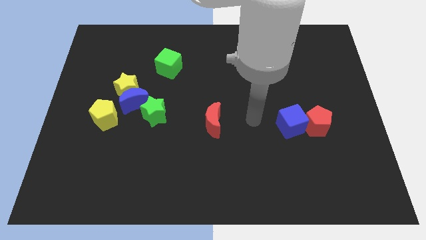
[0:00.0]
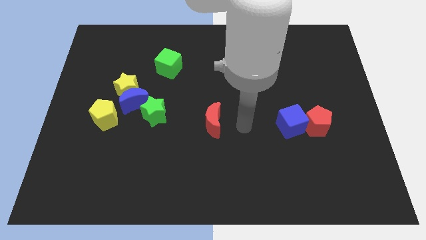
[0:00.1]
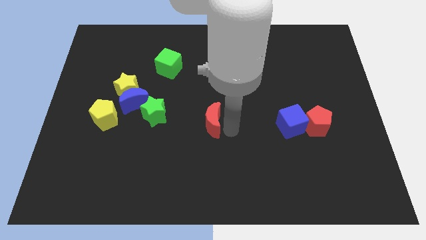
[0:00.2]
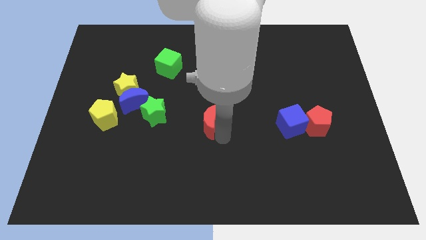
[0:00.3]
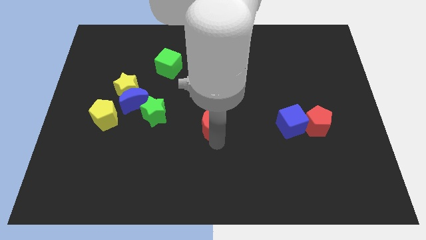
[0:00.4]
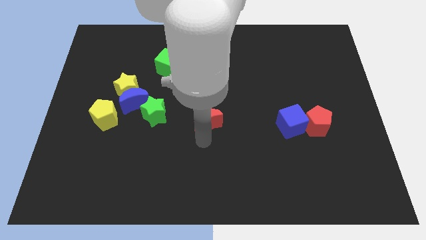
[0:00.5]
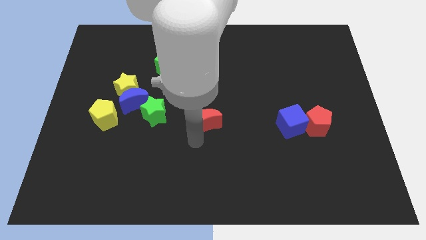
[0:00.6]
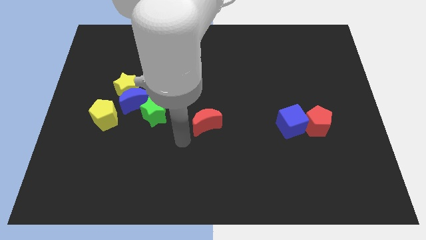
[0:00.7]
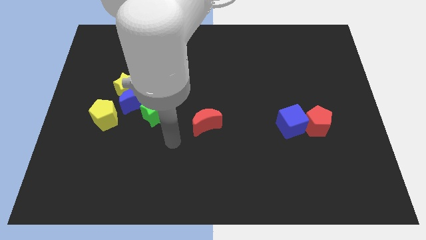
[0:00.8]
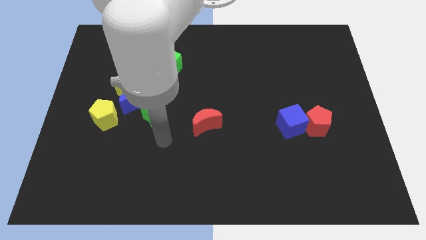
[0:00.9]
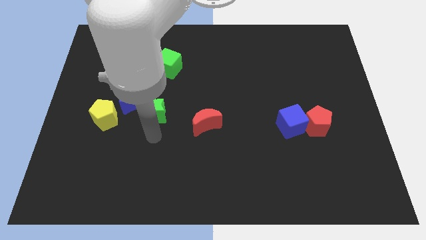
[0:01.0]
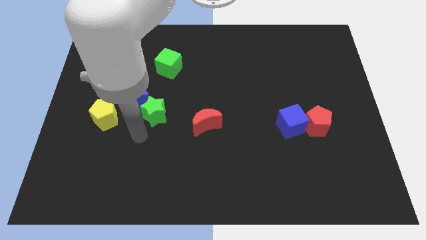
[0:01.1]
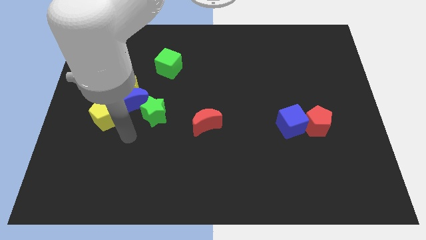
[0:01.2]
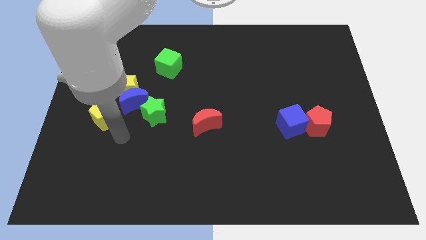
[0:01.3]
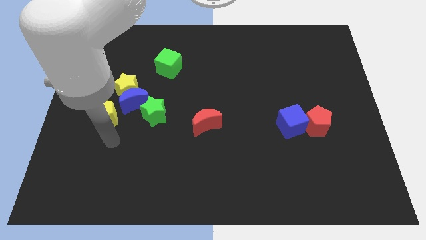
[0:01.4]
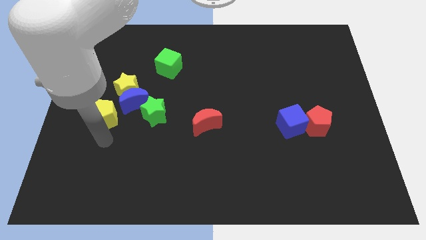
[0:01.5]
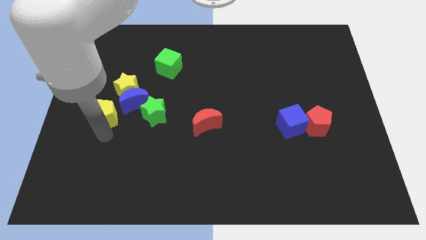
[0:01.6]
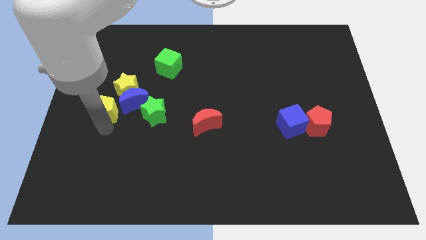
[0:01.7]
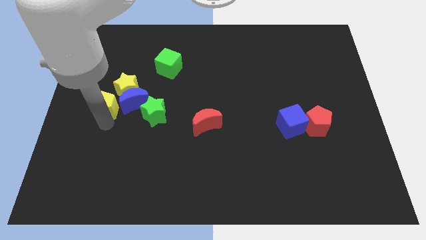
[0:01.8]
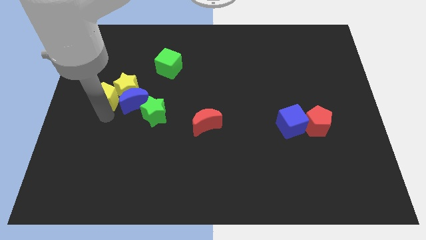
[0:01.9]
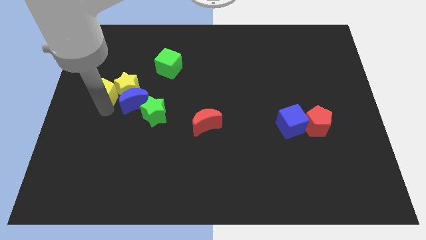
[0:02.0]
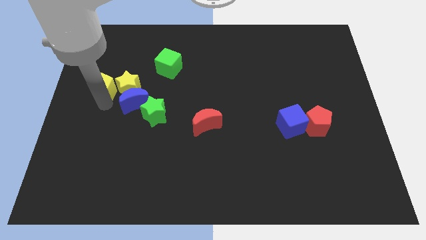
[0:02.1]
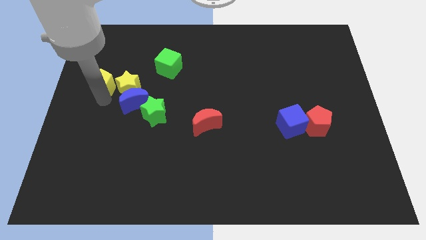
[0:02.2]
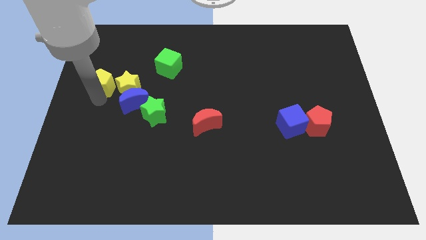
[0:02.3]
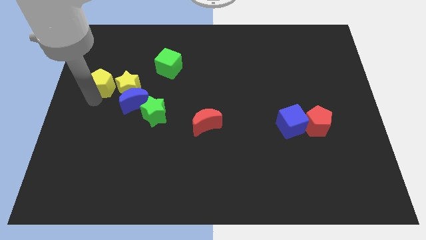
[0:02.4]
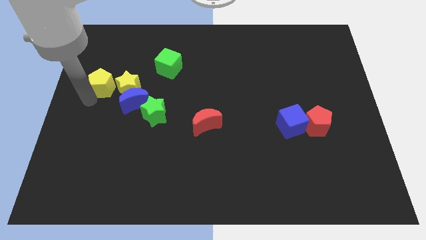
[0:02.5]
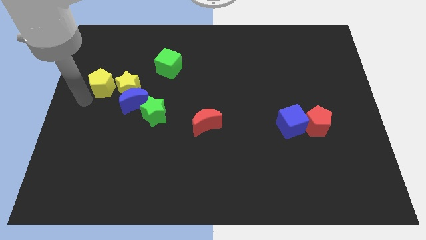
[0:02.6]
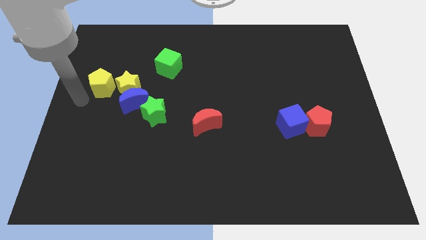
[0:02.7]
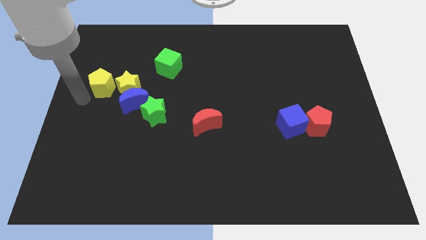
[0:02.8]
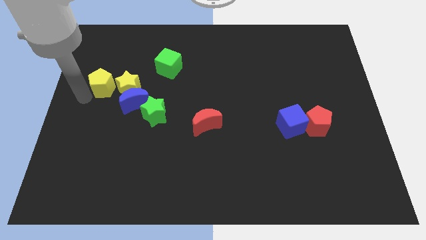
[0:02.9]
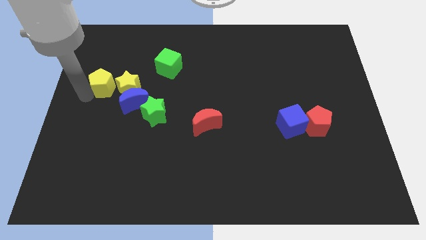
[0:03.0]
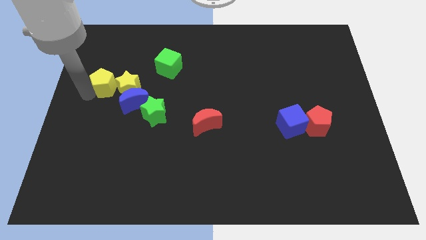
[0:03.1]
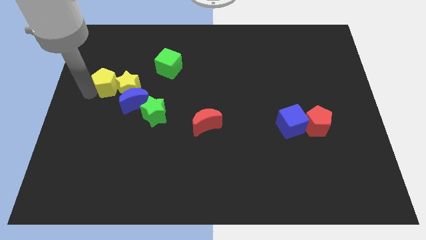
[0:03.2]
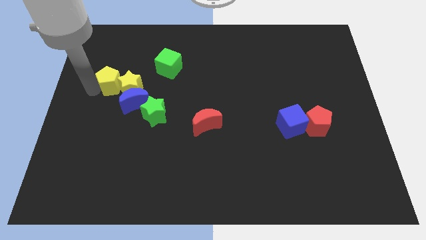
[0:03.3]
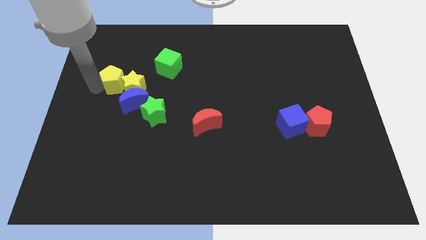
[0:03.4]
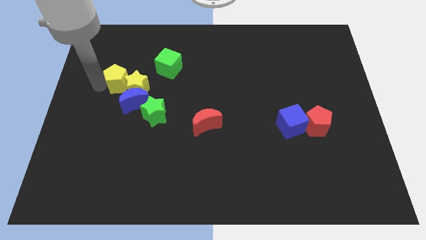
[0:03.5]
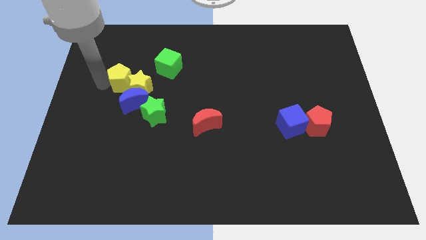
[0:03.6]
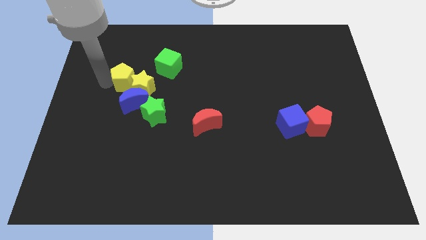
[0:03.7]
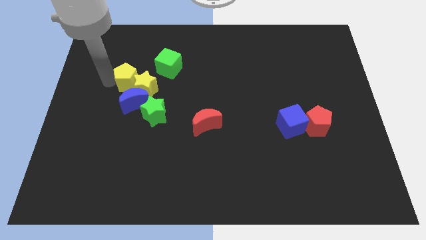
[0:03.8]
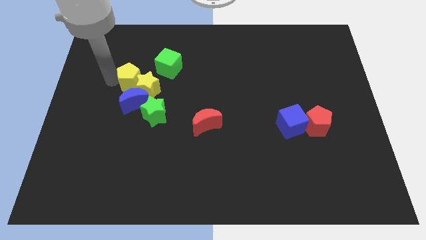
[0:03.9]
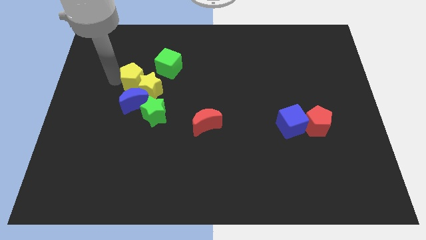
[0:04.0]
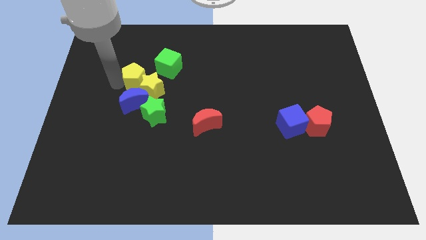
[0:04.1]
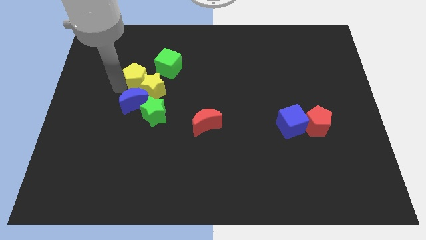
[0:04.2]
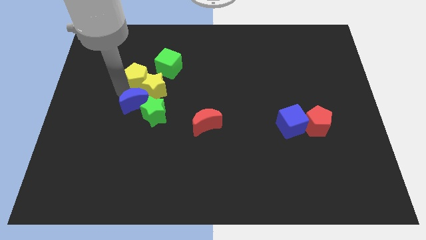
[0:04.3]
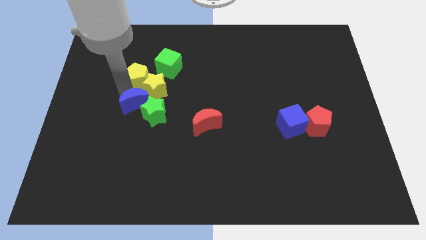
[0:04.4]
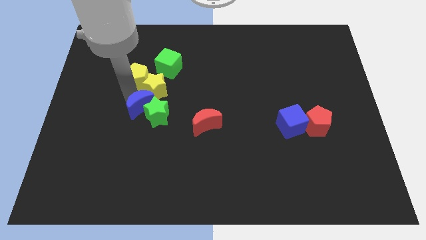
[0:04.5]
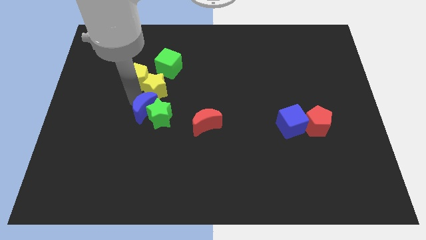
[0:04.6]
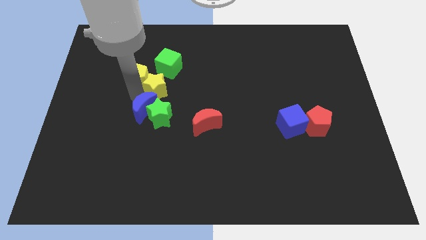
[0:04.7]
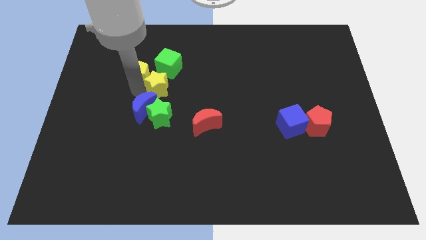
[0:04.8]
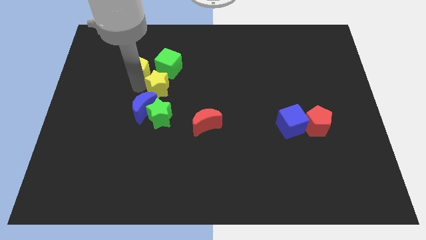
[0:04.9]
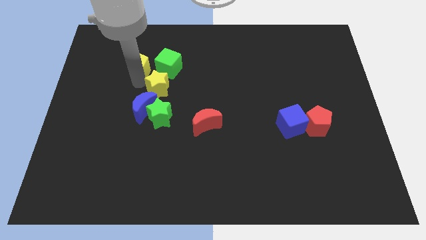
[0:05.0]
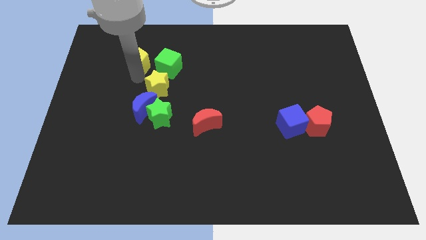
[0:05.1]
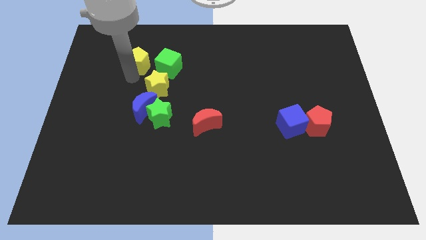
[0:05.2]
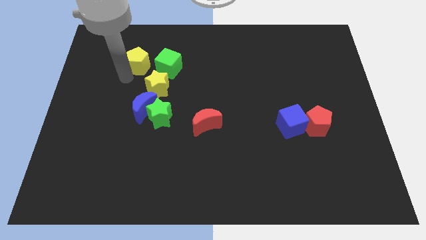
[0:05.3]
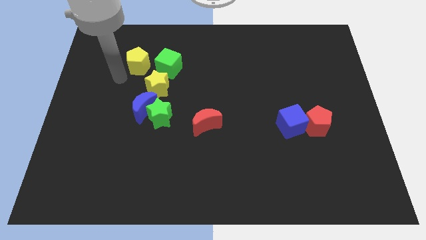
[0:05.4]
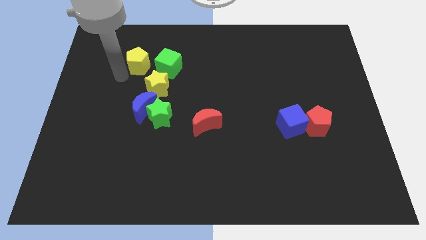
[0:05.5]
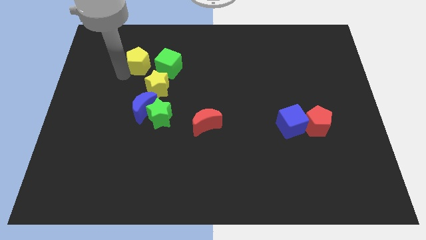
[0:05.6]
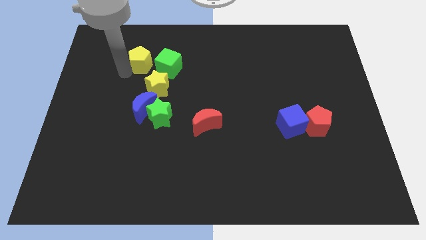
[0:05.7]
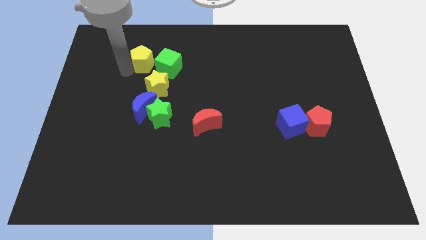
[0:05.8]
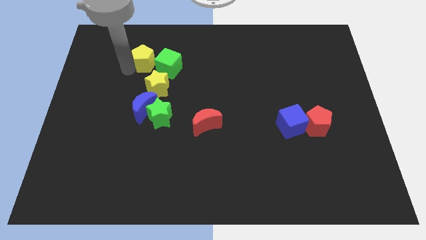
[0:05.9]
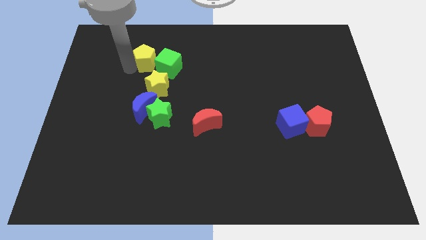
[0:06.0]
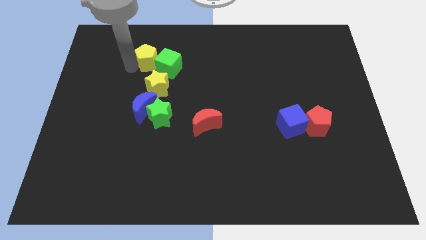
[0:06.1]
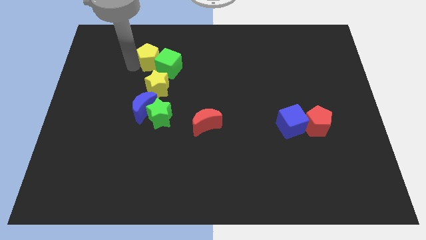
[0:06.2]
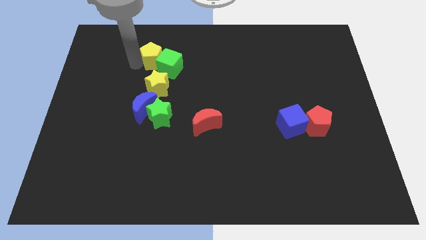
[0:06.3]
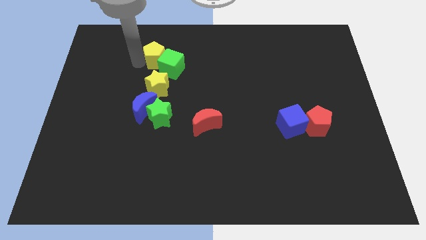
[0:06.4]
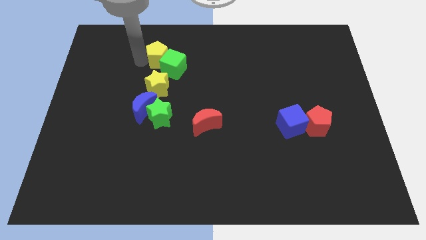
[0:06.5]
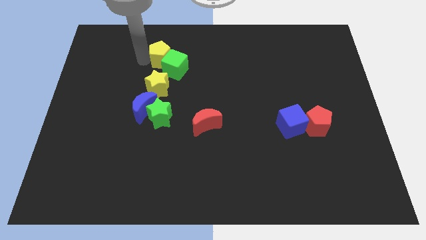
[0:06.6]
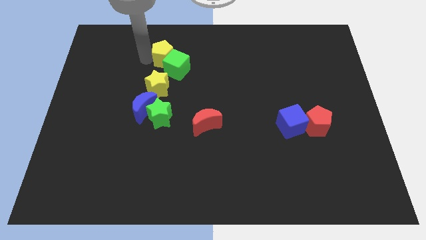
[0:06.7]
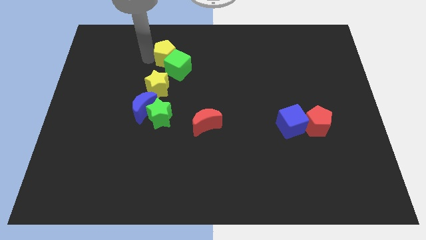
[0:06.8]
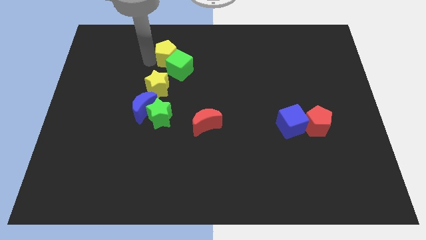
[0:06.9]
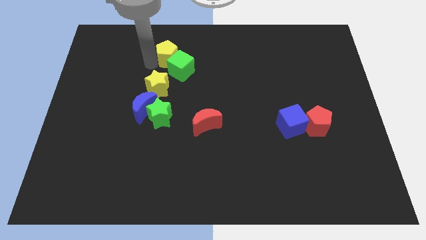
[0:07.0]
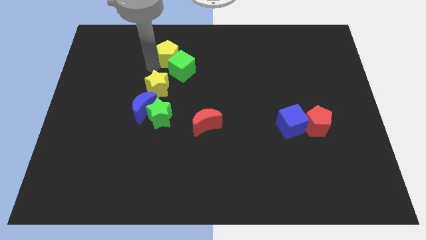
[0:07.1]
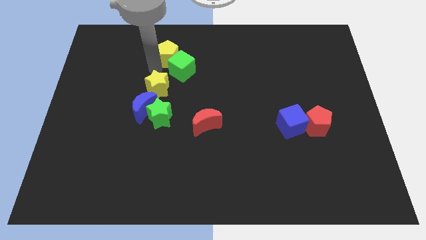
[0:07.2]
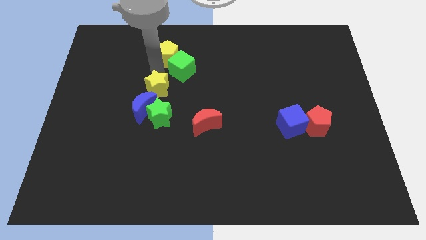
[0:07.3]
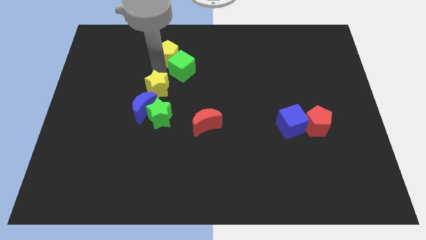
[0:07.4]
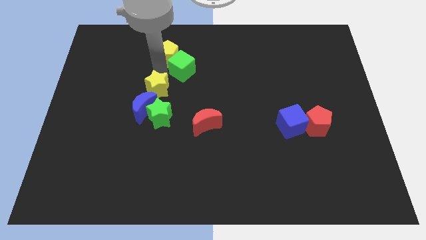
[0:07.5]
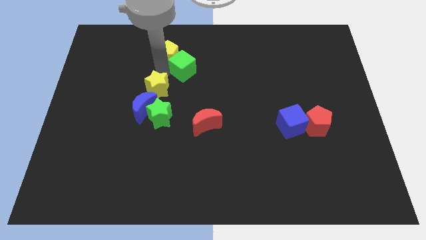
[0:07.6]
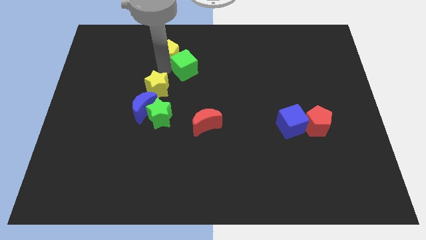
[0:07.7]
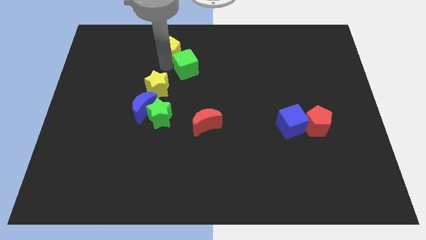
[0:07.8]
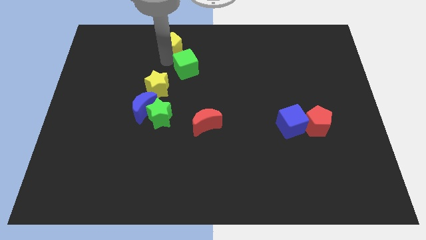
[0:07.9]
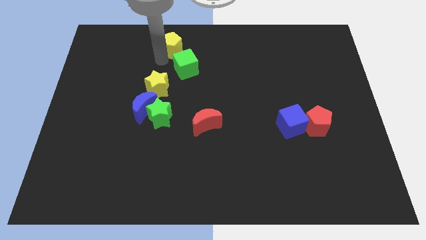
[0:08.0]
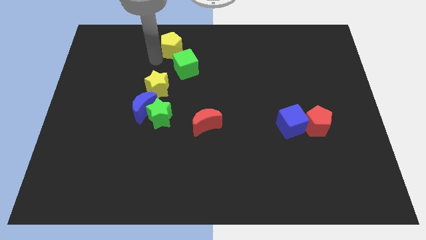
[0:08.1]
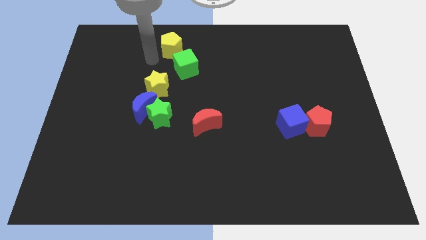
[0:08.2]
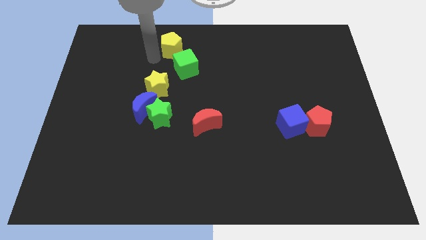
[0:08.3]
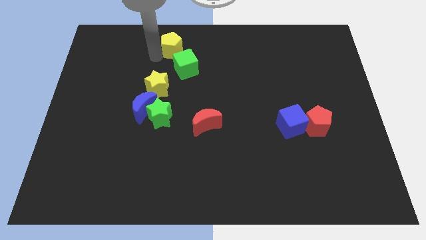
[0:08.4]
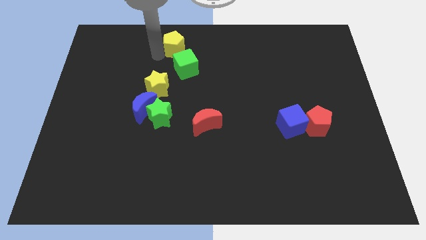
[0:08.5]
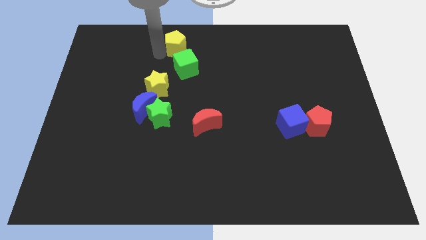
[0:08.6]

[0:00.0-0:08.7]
push the yellow pentagon to the top side
